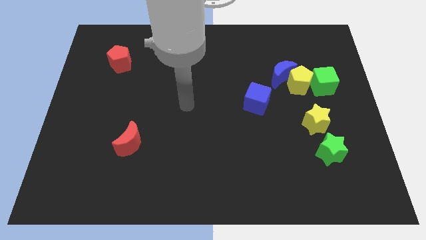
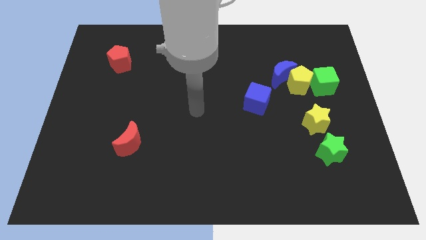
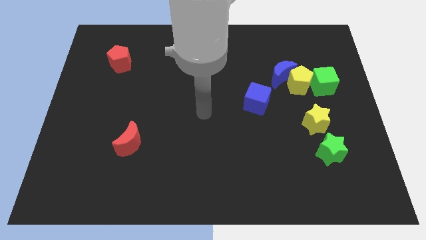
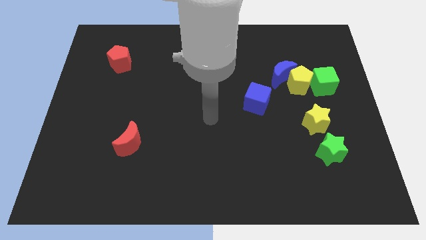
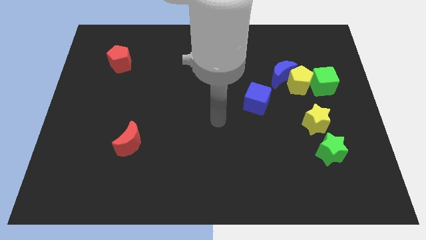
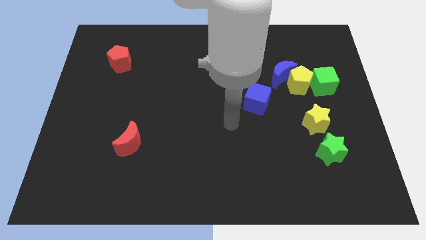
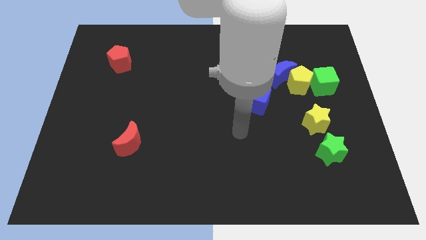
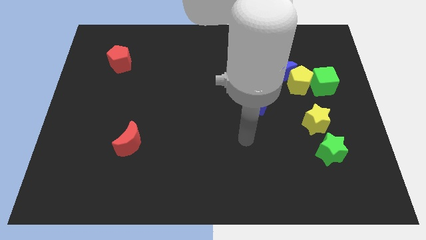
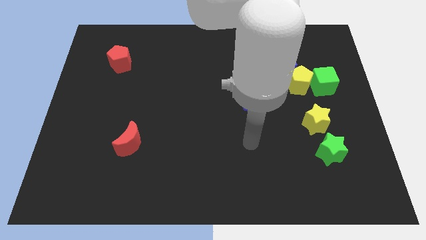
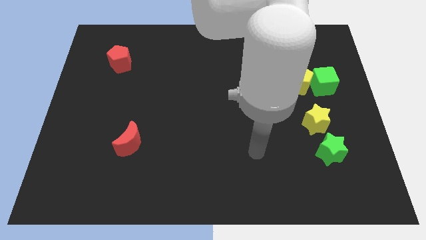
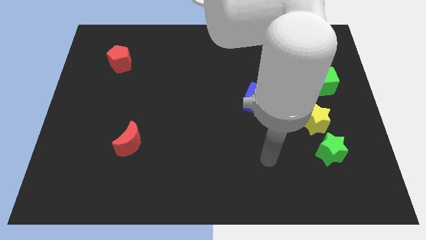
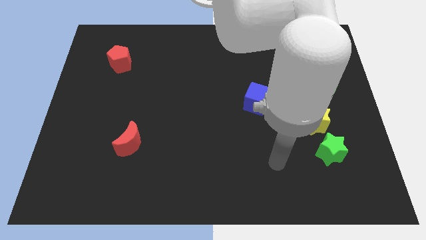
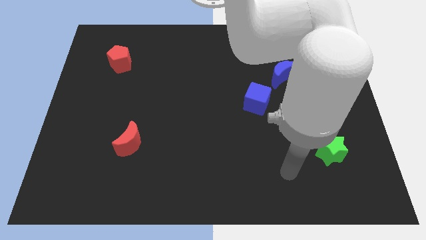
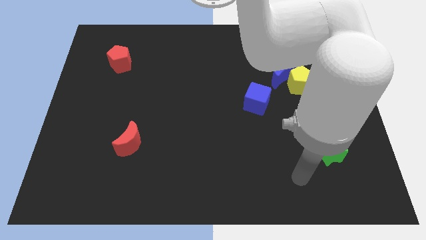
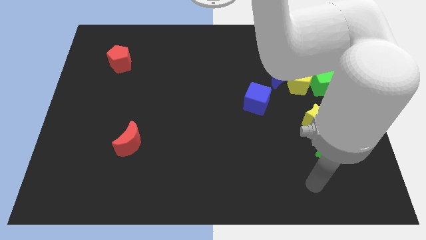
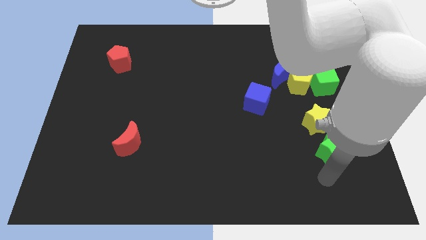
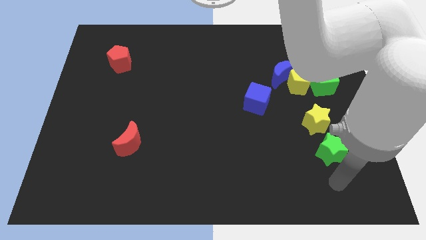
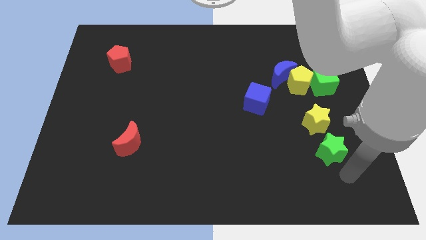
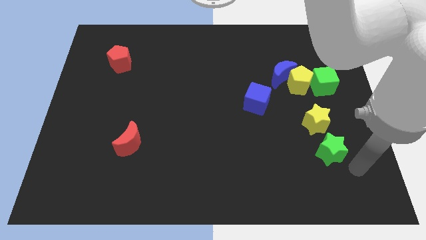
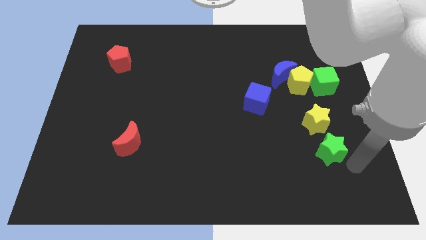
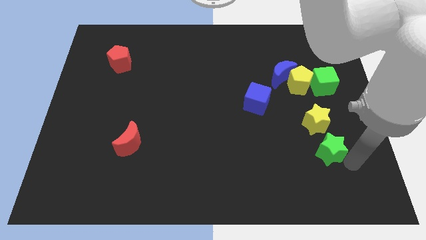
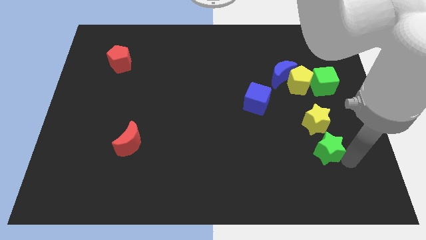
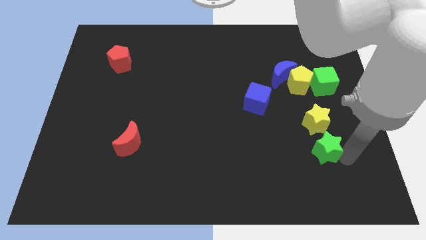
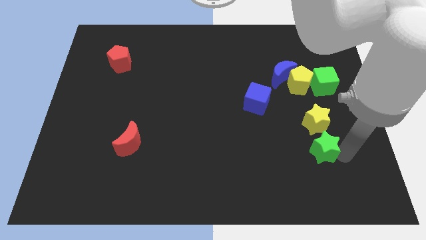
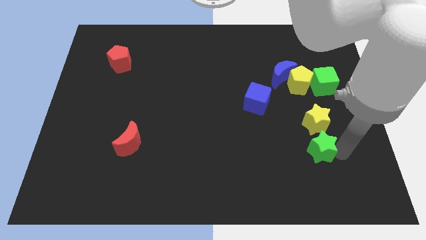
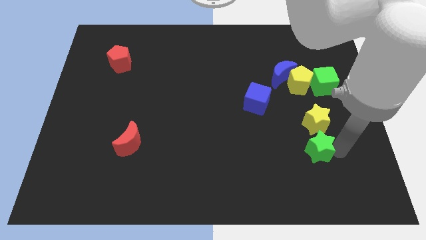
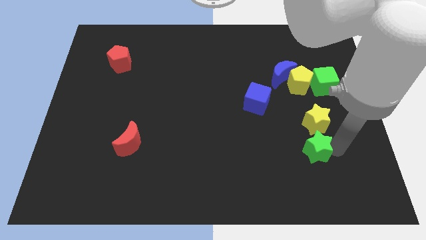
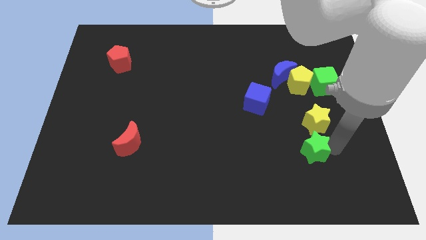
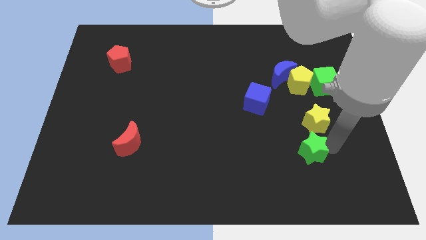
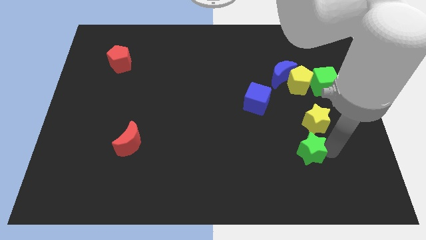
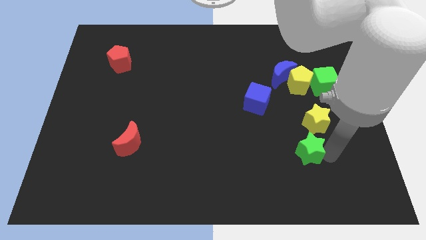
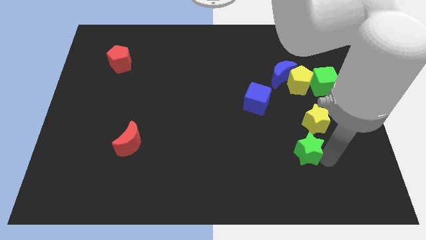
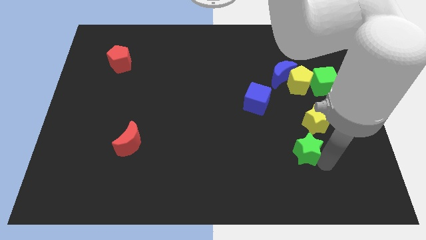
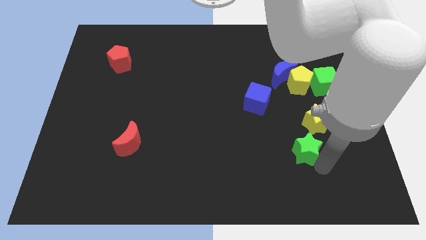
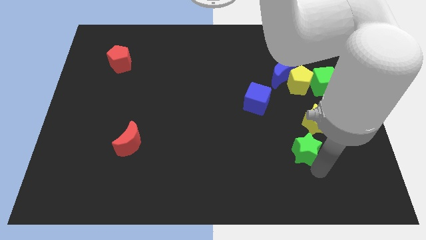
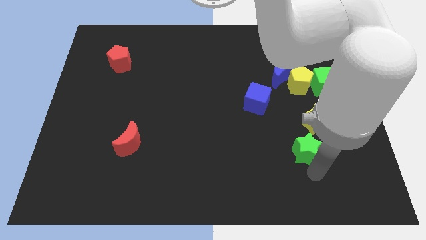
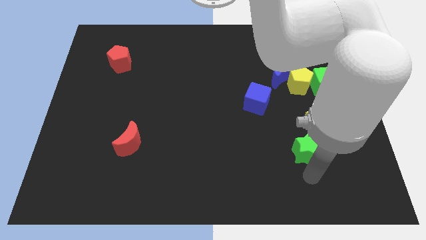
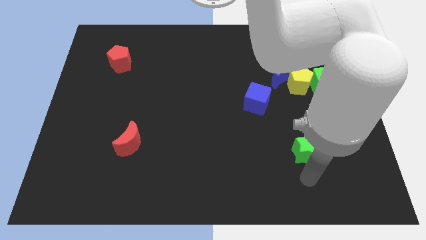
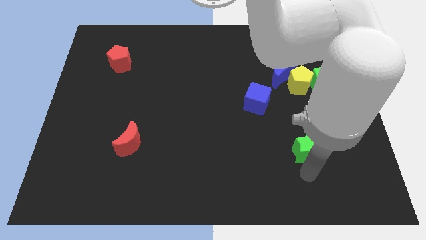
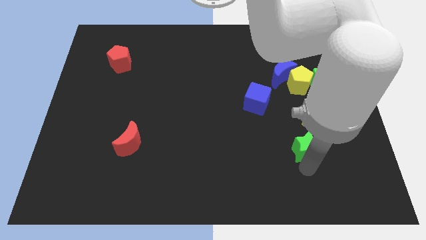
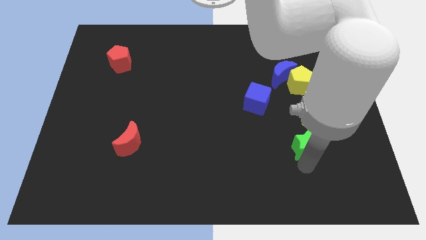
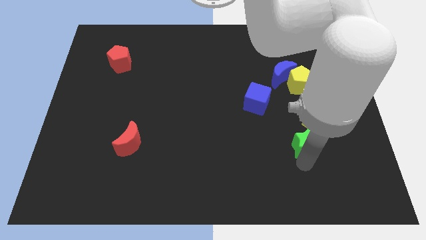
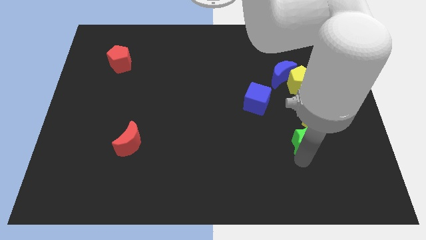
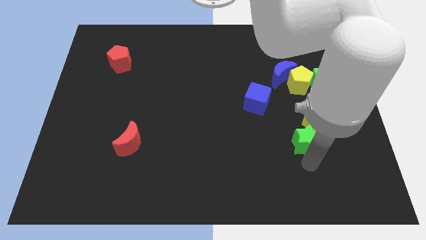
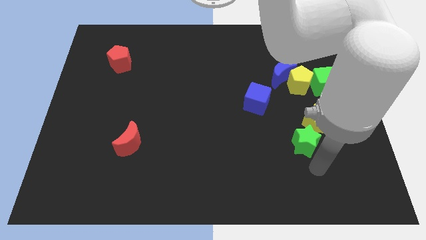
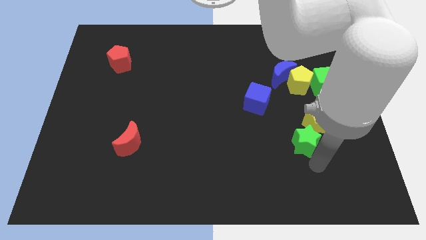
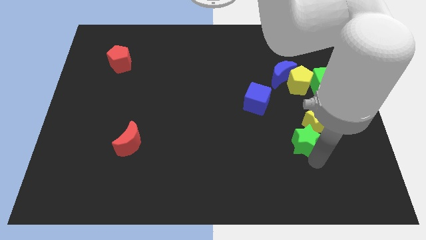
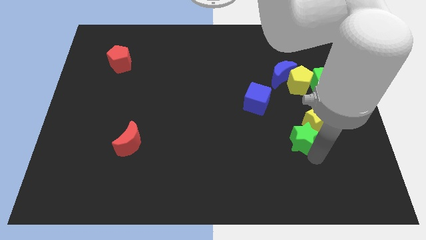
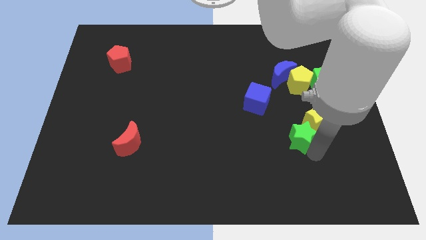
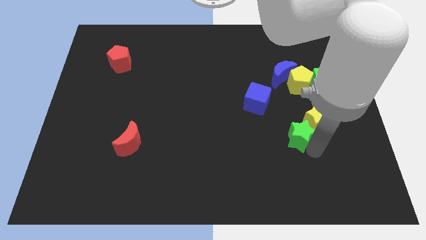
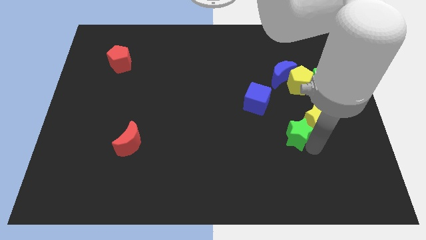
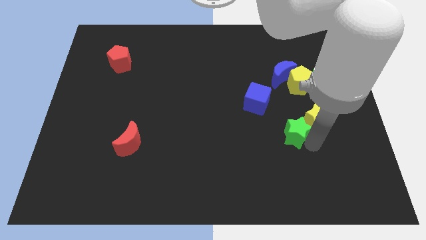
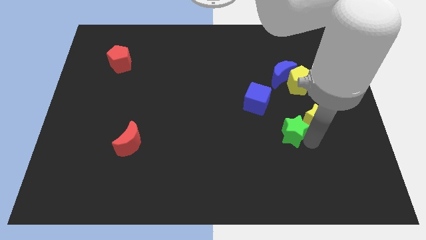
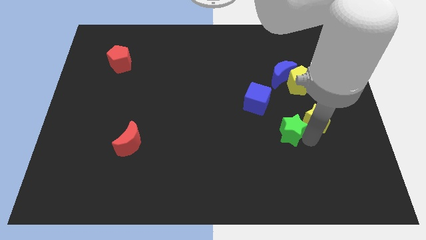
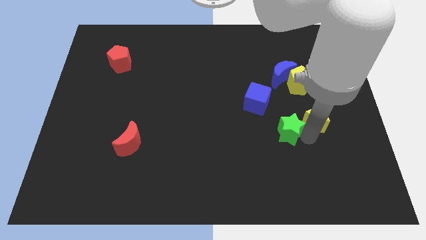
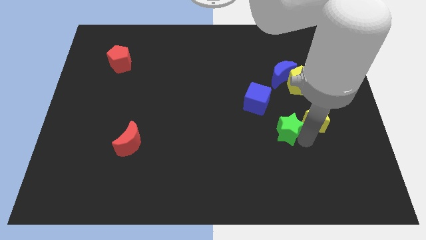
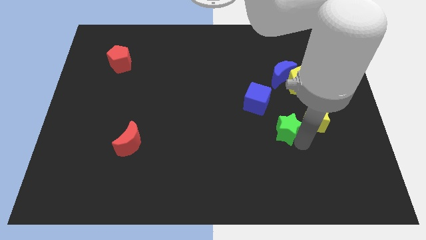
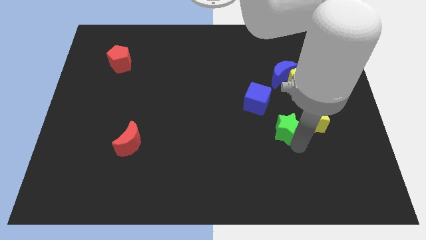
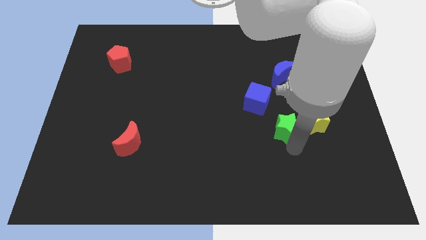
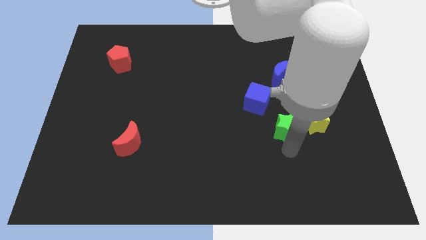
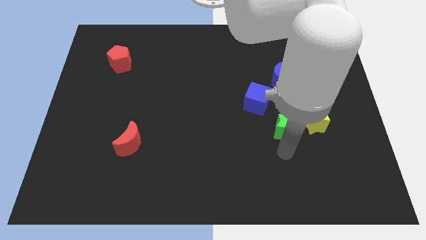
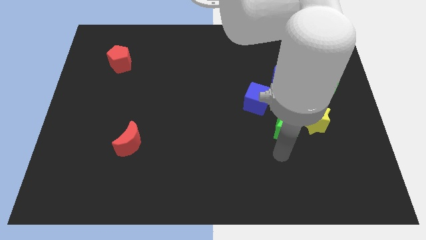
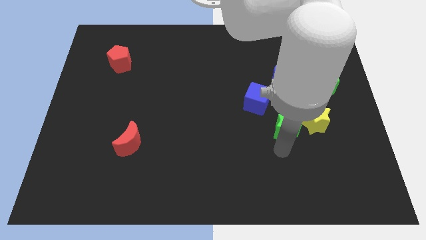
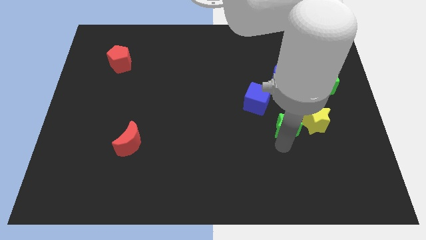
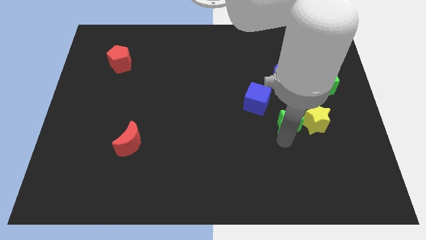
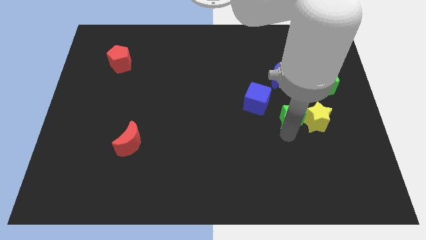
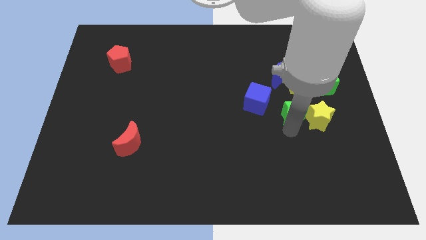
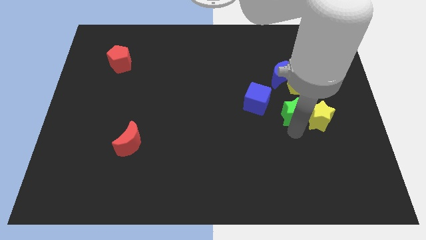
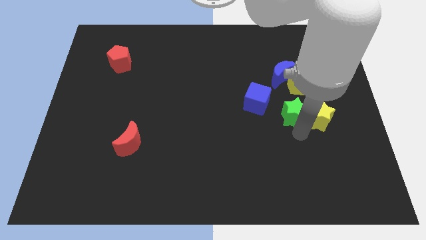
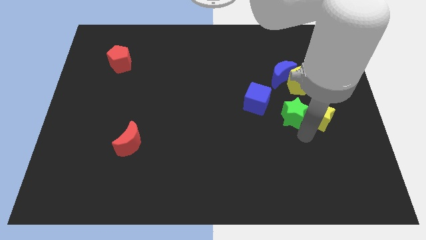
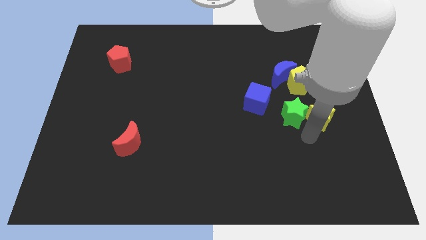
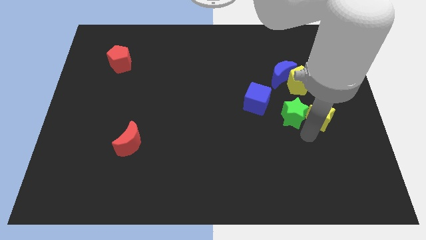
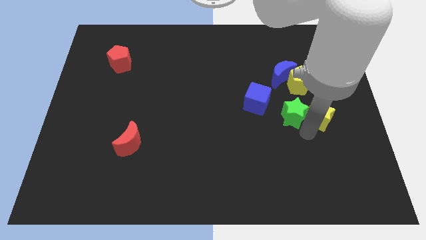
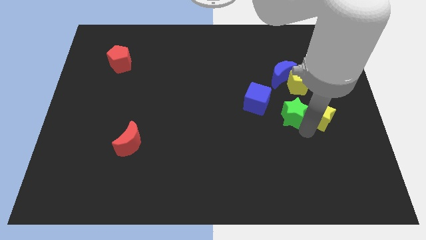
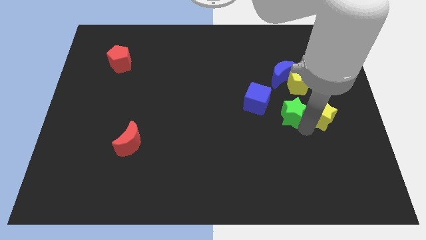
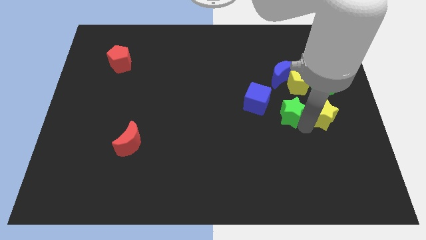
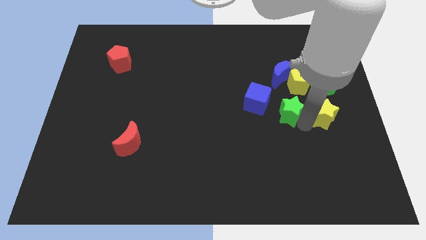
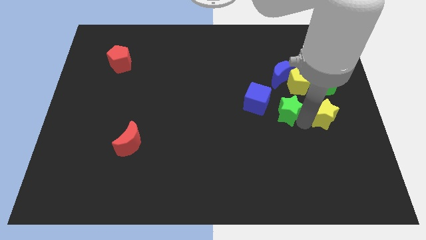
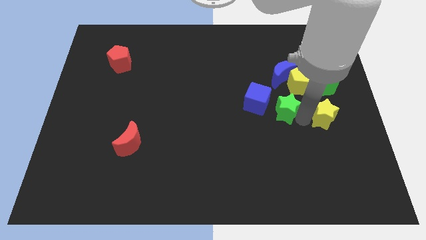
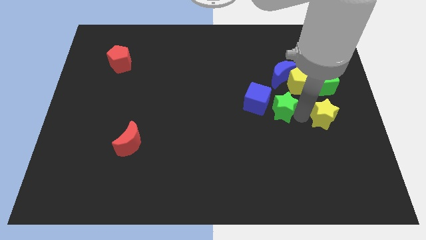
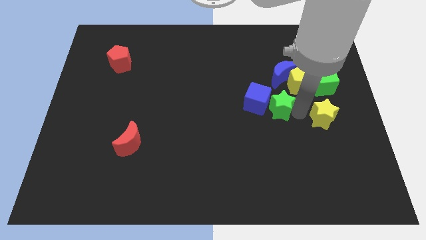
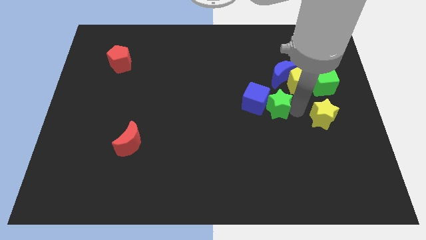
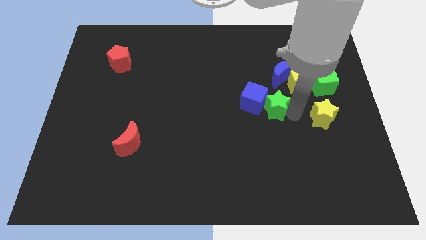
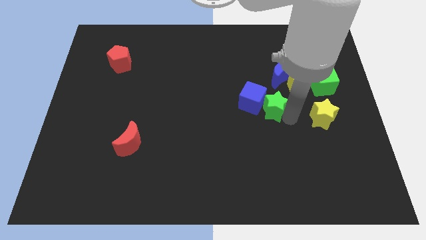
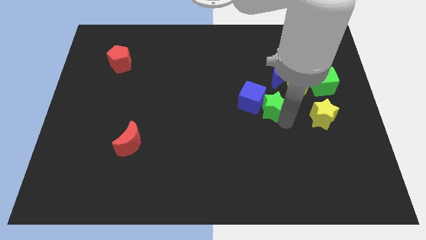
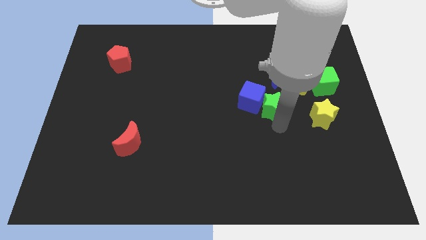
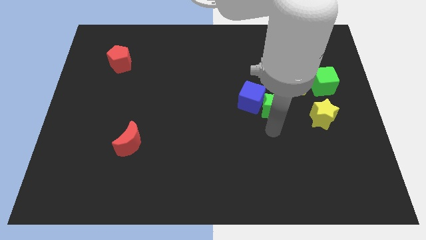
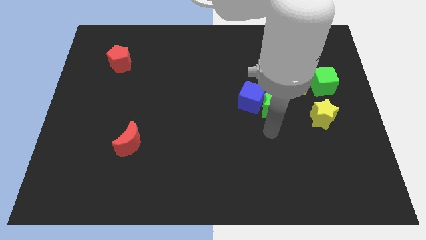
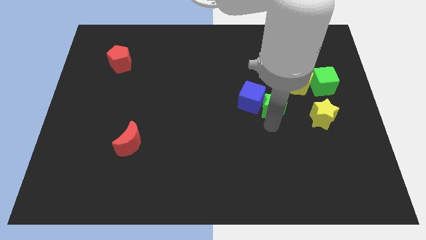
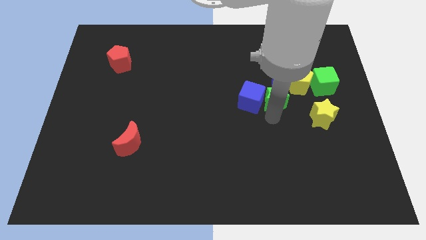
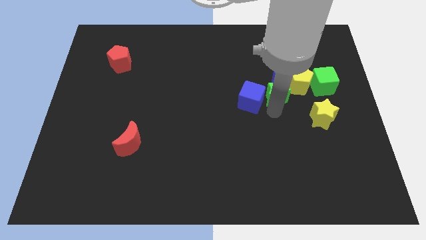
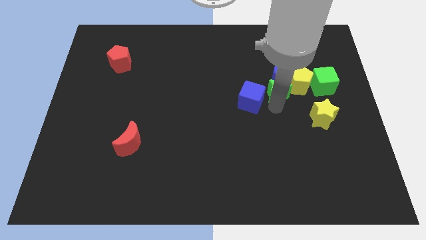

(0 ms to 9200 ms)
put the green star close to the blue moon
